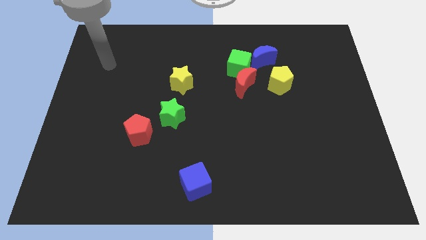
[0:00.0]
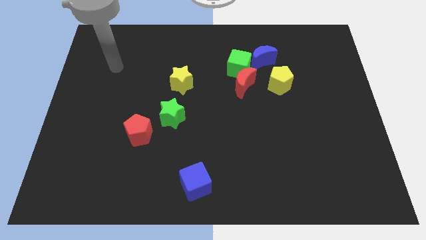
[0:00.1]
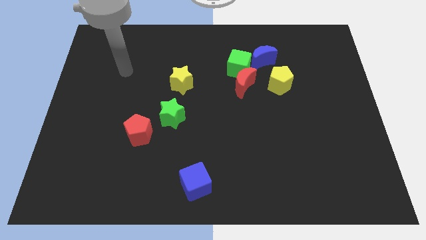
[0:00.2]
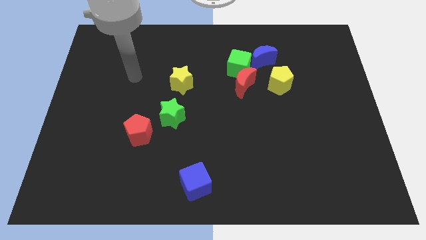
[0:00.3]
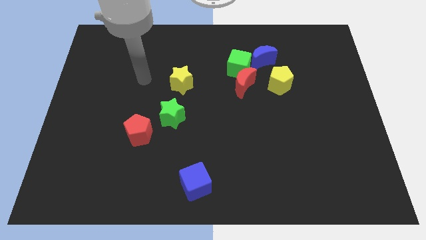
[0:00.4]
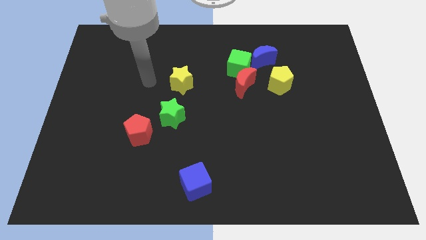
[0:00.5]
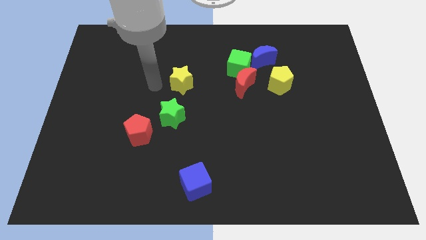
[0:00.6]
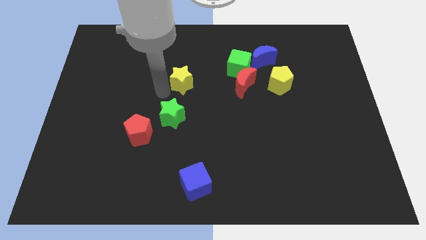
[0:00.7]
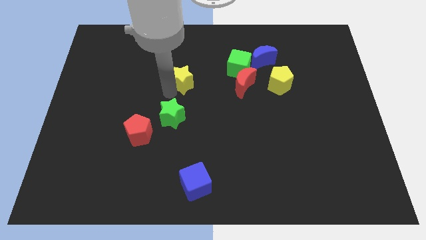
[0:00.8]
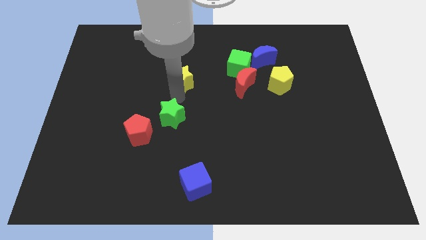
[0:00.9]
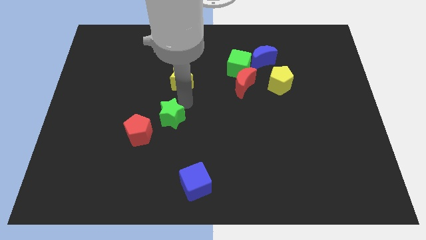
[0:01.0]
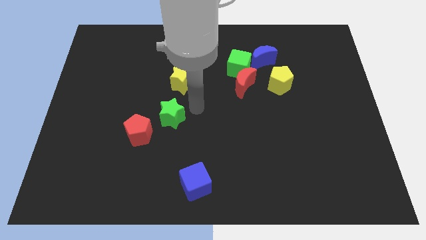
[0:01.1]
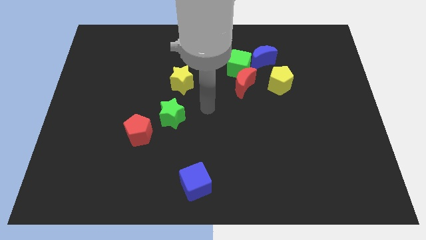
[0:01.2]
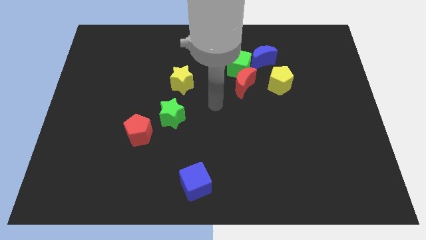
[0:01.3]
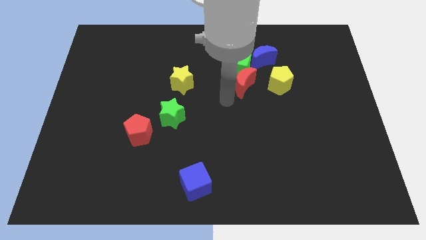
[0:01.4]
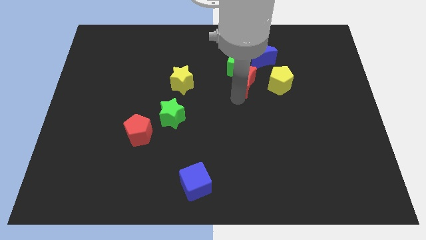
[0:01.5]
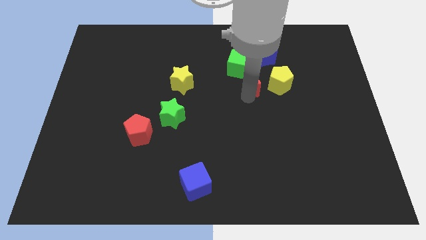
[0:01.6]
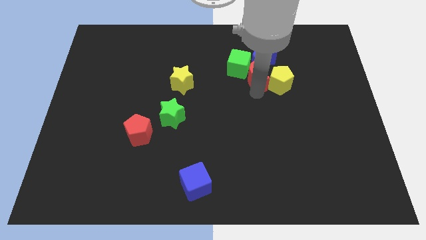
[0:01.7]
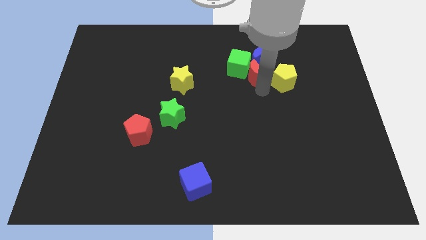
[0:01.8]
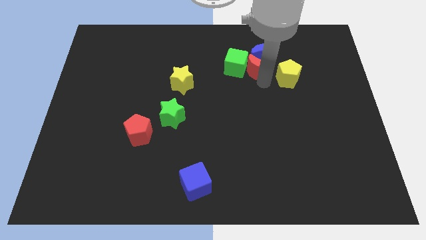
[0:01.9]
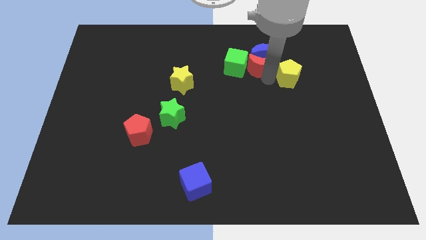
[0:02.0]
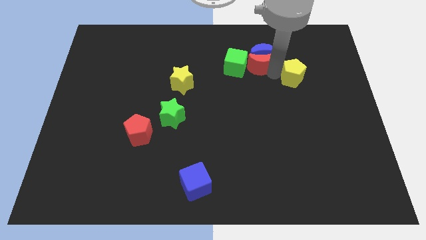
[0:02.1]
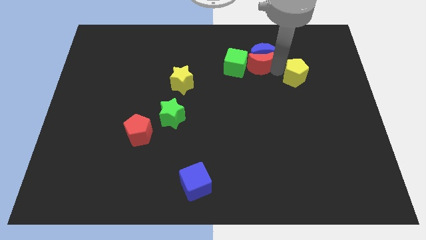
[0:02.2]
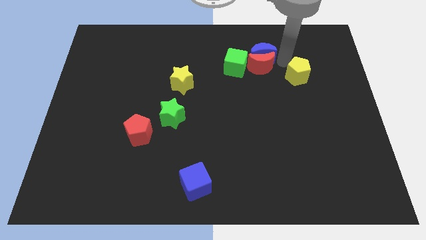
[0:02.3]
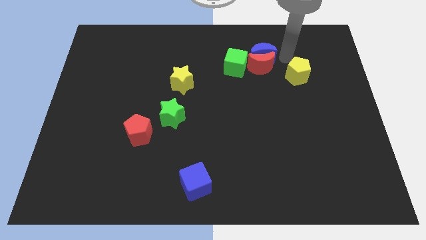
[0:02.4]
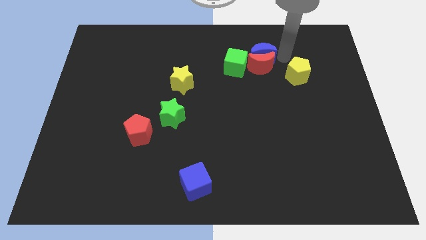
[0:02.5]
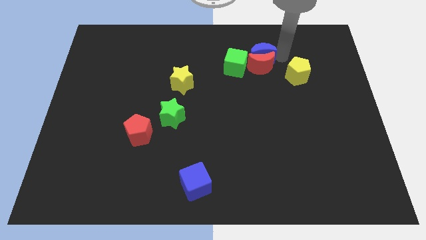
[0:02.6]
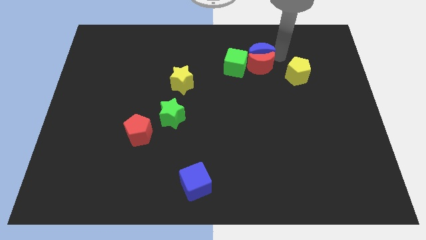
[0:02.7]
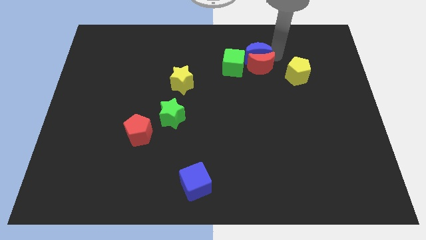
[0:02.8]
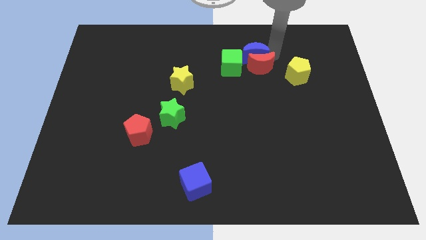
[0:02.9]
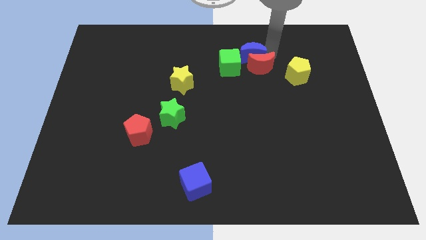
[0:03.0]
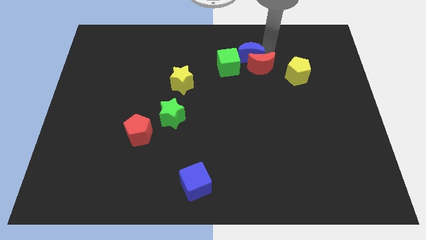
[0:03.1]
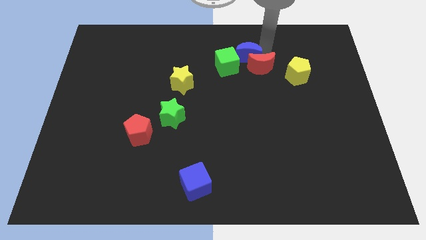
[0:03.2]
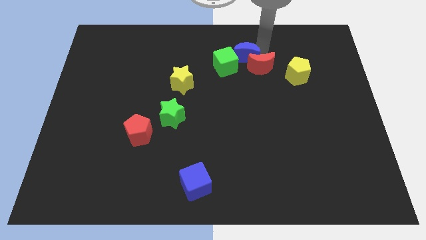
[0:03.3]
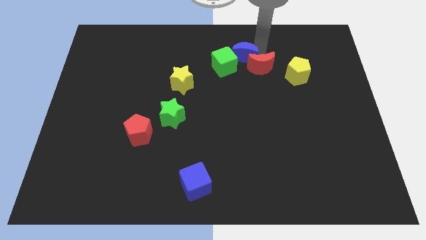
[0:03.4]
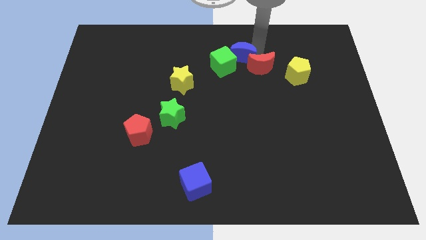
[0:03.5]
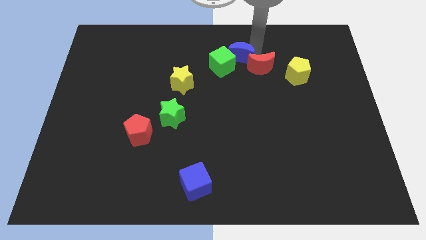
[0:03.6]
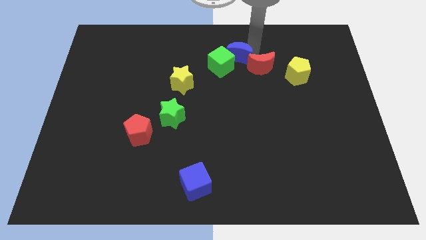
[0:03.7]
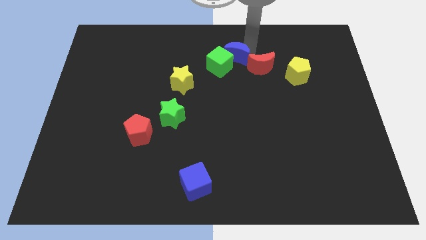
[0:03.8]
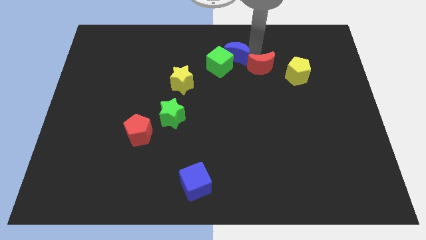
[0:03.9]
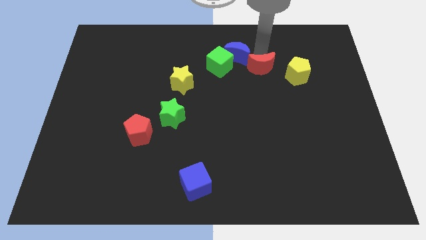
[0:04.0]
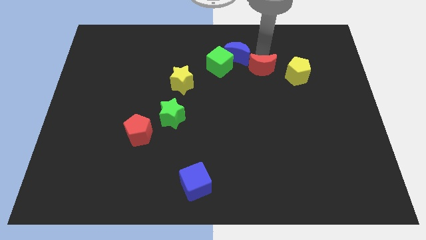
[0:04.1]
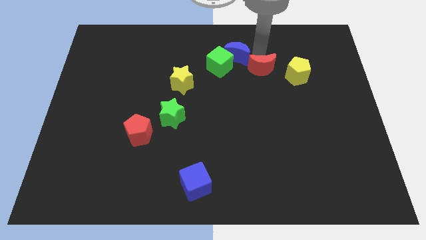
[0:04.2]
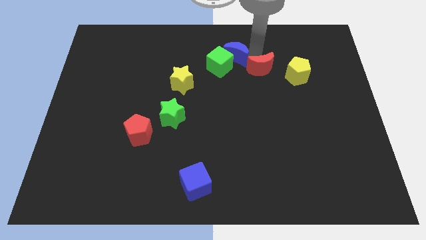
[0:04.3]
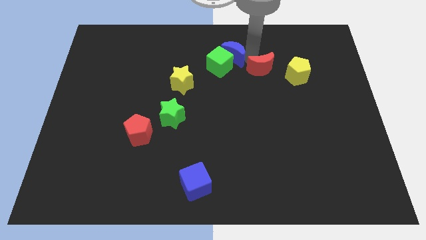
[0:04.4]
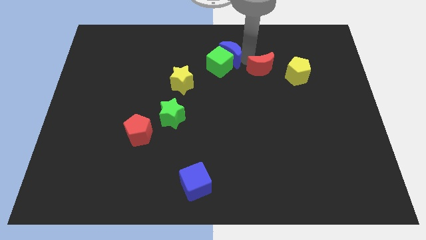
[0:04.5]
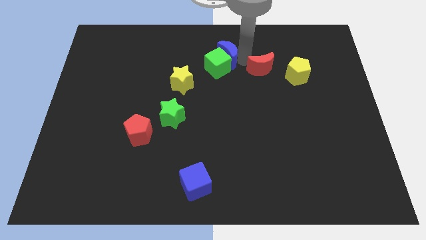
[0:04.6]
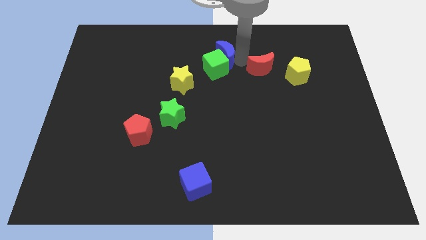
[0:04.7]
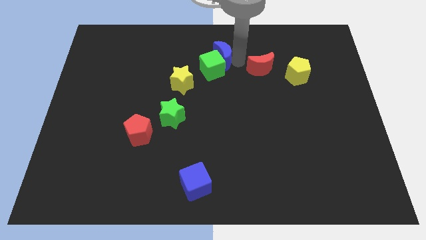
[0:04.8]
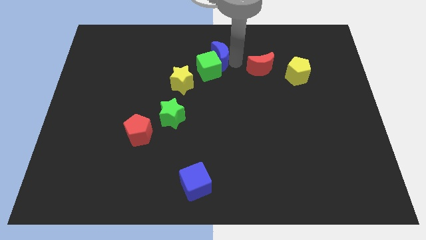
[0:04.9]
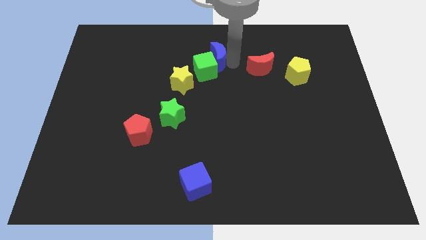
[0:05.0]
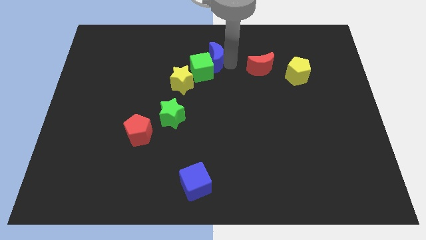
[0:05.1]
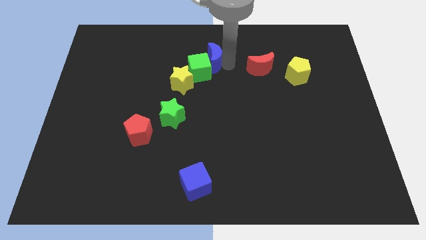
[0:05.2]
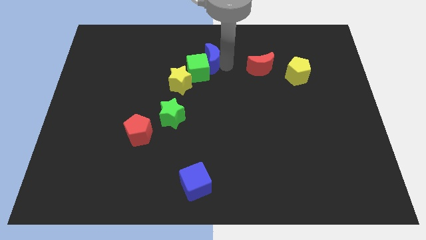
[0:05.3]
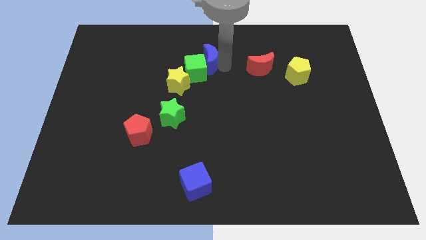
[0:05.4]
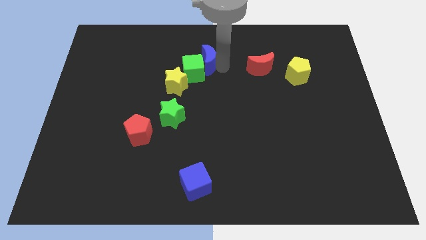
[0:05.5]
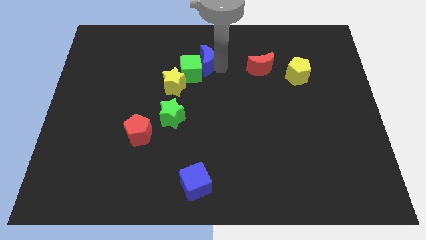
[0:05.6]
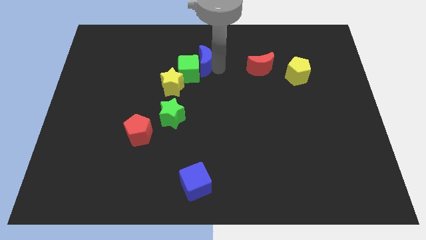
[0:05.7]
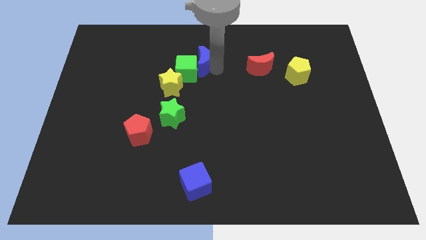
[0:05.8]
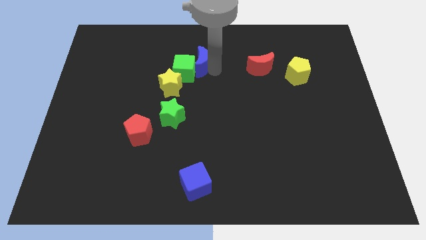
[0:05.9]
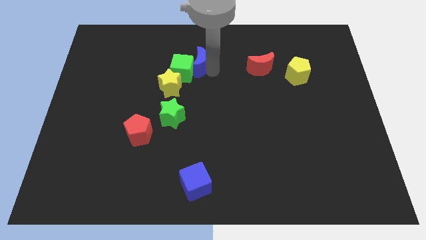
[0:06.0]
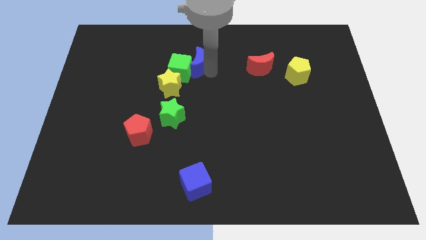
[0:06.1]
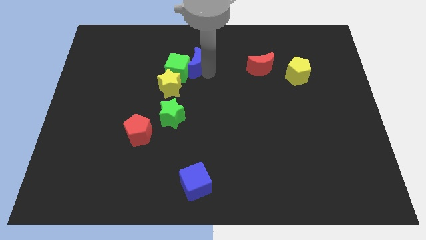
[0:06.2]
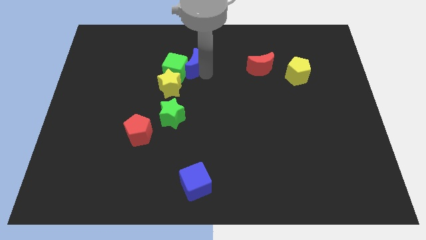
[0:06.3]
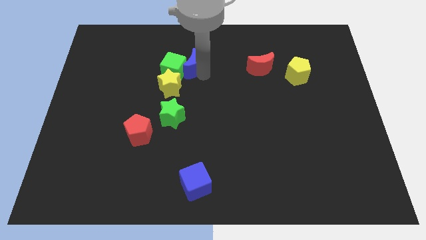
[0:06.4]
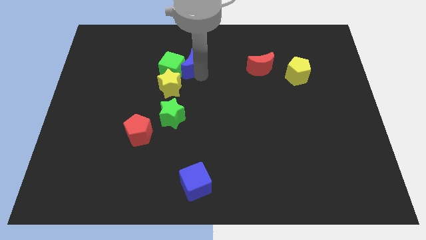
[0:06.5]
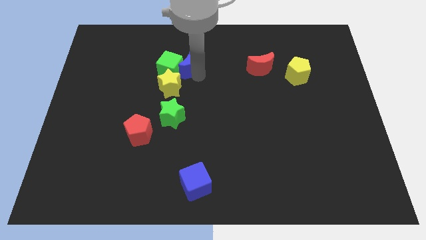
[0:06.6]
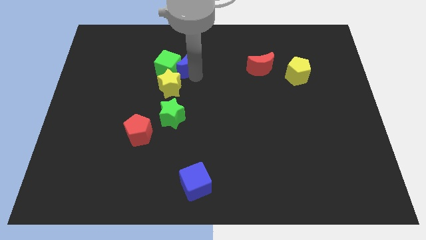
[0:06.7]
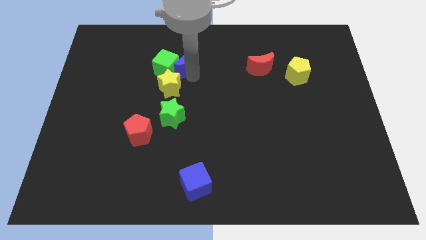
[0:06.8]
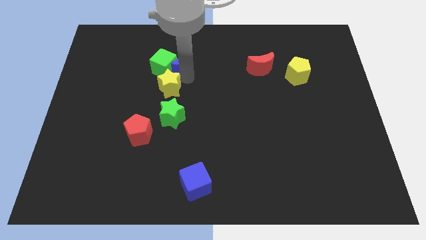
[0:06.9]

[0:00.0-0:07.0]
push the blue moon to the left

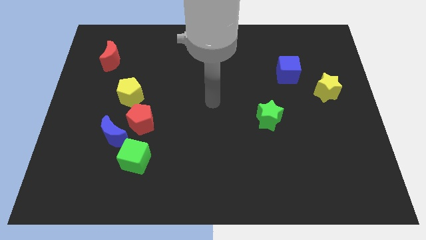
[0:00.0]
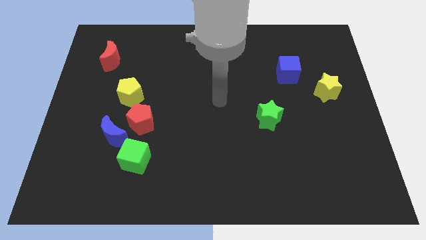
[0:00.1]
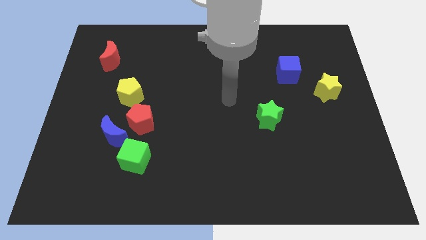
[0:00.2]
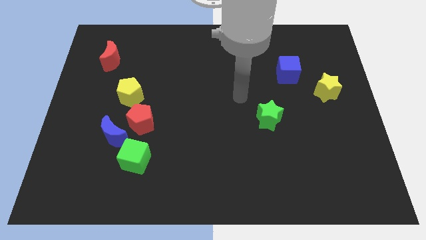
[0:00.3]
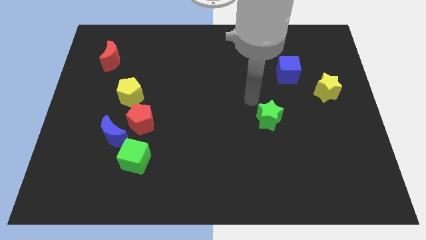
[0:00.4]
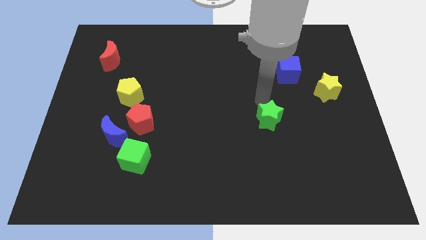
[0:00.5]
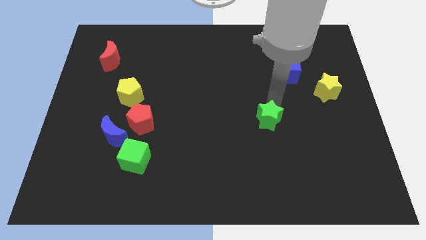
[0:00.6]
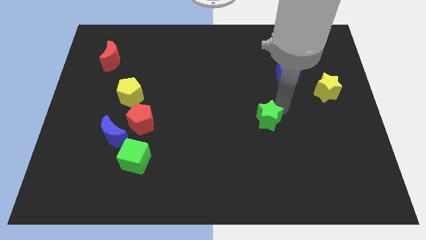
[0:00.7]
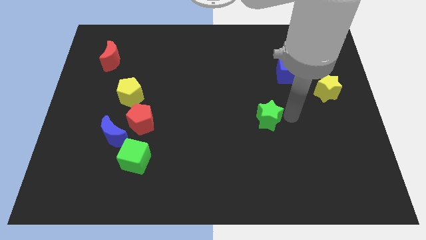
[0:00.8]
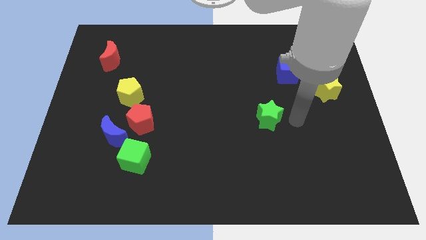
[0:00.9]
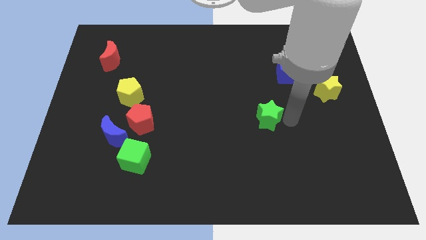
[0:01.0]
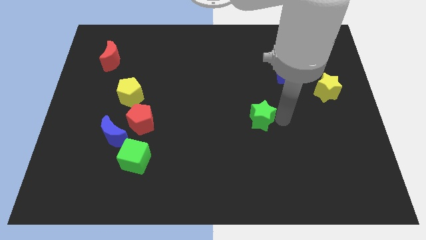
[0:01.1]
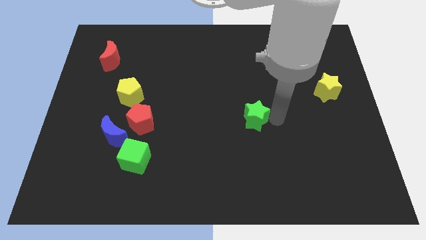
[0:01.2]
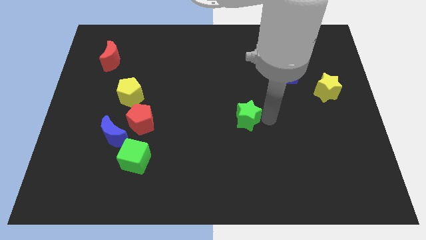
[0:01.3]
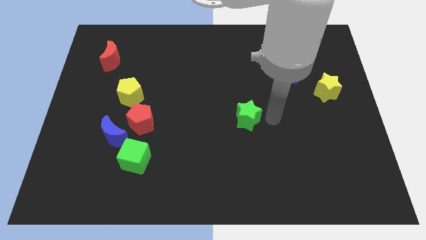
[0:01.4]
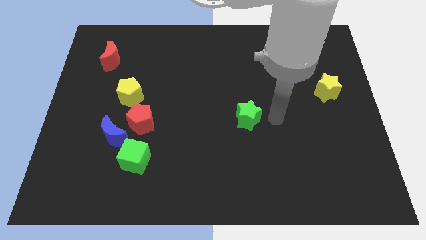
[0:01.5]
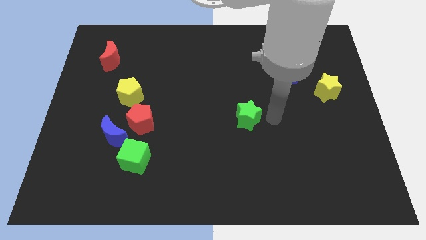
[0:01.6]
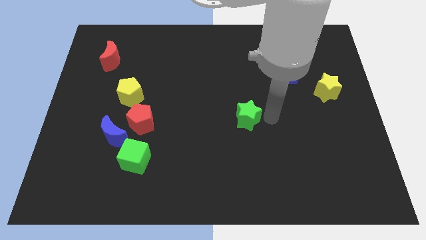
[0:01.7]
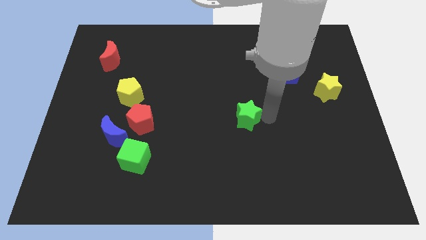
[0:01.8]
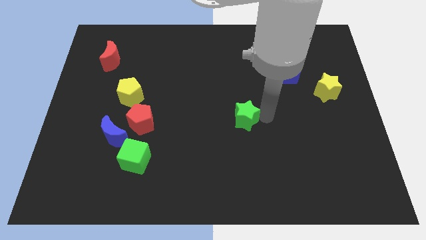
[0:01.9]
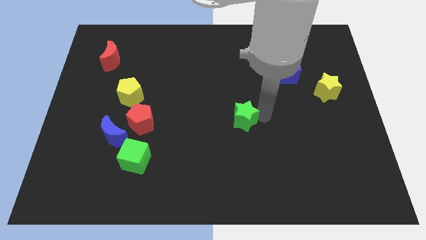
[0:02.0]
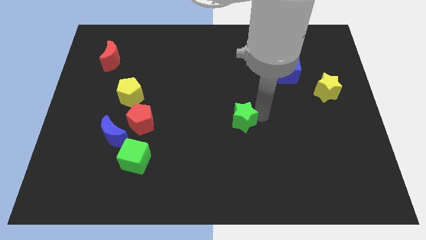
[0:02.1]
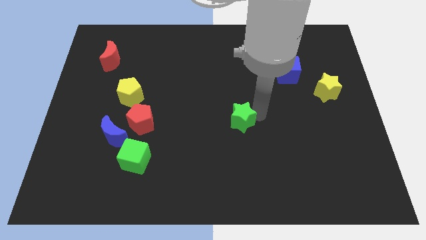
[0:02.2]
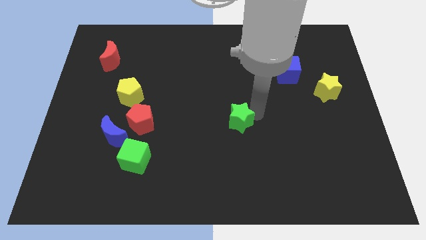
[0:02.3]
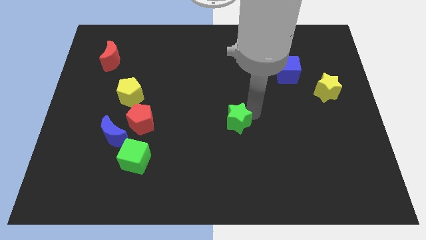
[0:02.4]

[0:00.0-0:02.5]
move the green star slightly to the left
